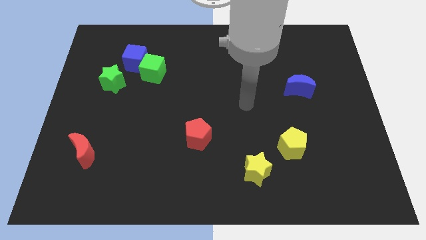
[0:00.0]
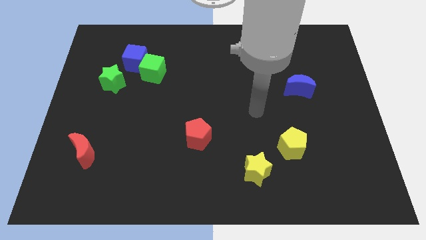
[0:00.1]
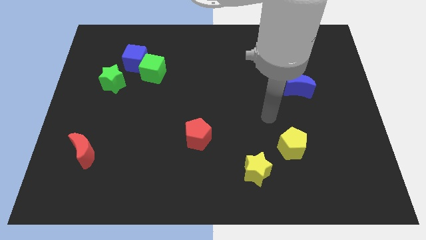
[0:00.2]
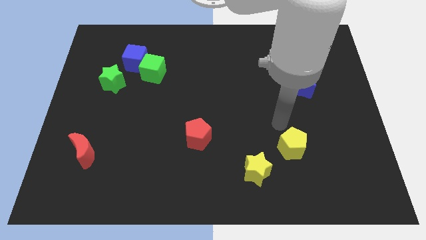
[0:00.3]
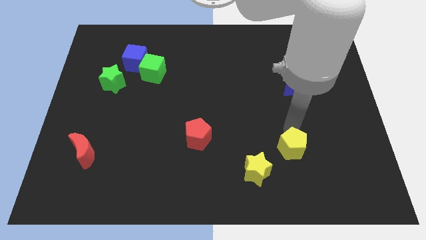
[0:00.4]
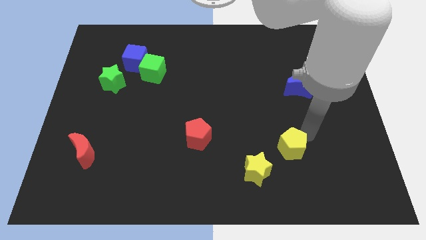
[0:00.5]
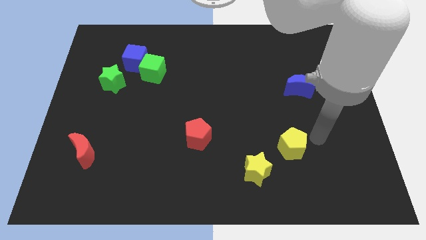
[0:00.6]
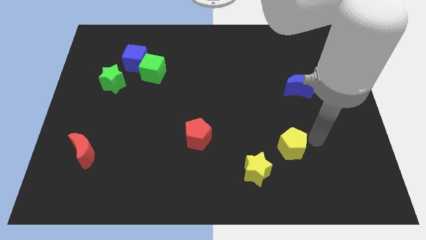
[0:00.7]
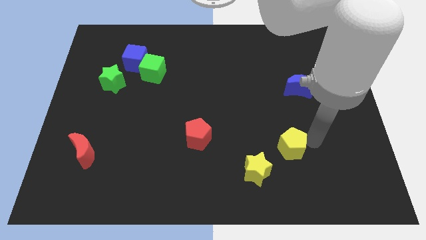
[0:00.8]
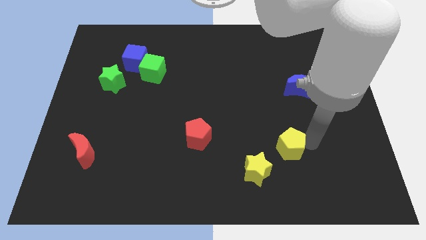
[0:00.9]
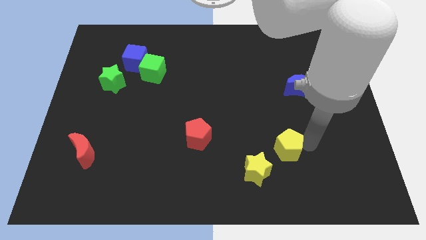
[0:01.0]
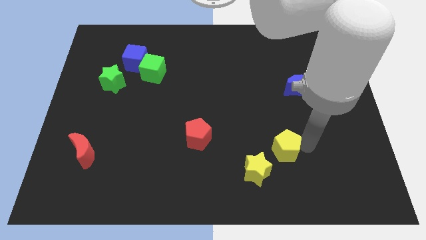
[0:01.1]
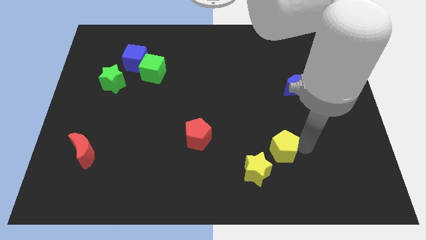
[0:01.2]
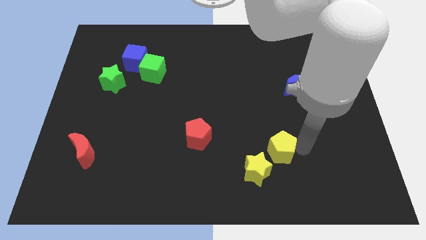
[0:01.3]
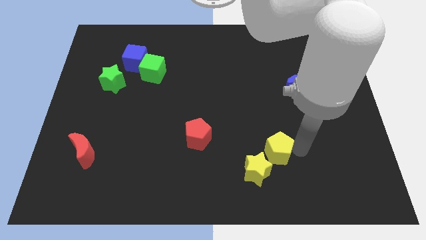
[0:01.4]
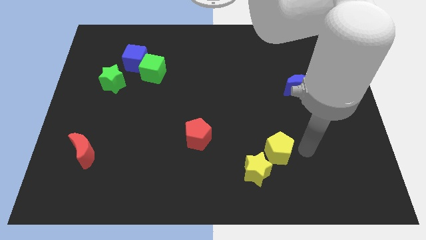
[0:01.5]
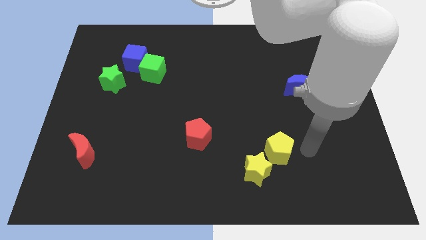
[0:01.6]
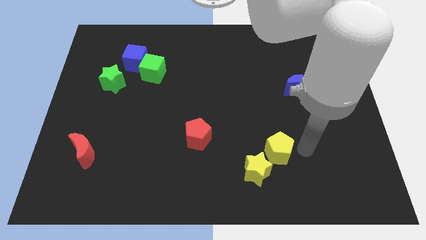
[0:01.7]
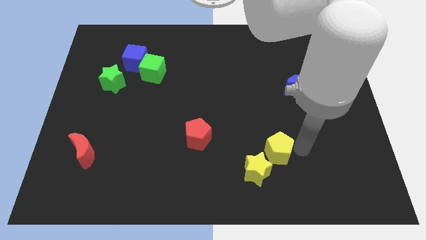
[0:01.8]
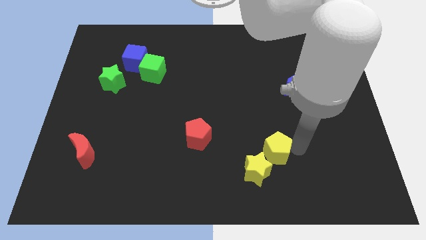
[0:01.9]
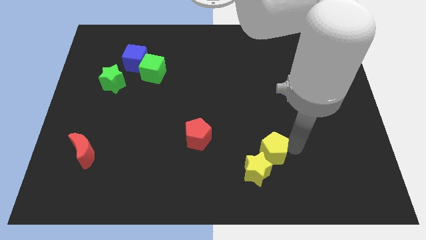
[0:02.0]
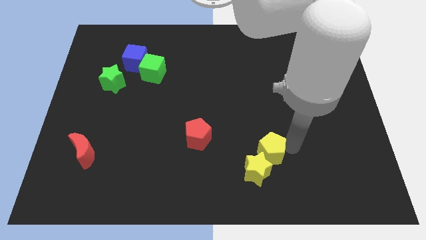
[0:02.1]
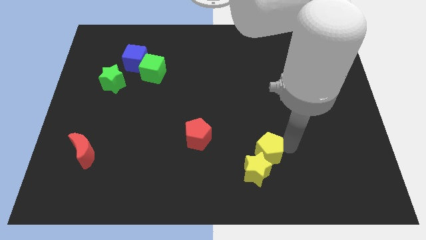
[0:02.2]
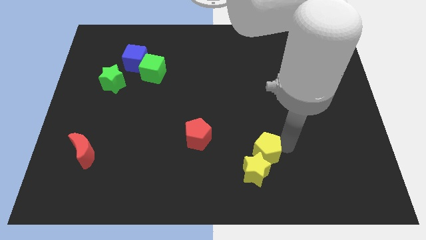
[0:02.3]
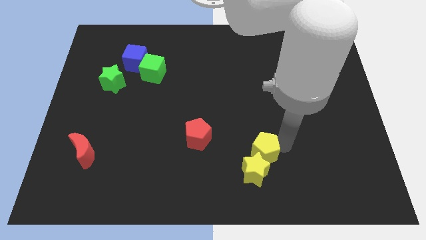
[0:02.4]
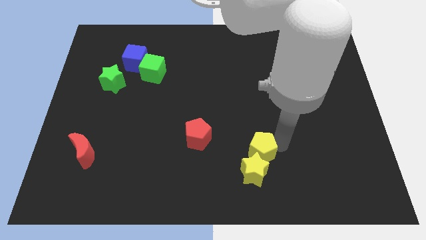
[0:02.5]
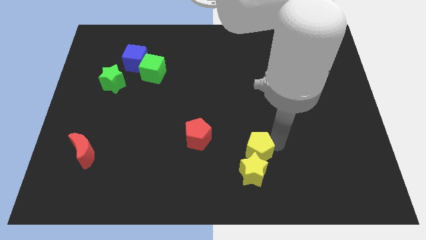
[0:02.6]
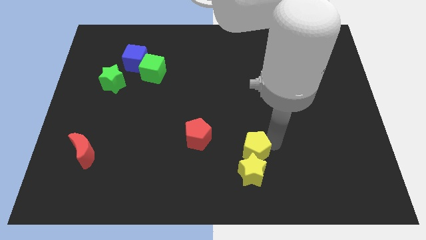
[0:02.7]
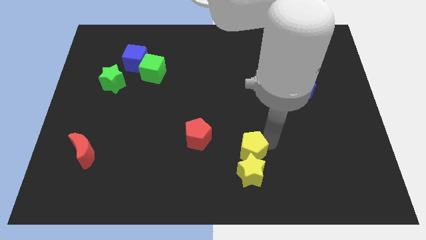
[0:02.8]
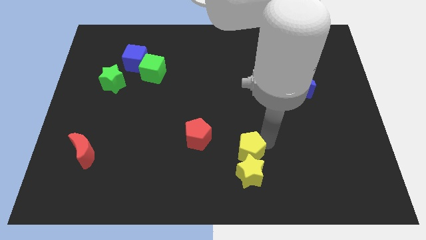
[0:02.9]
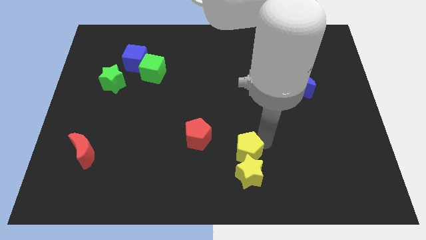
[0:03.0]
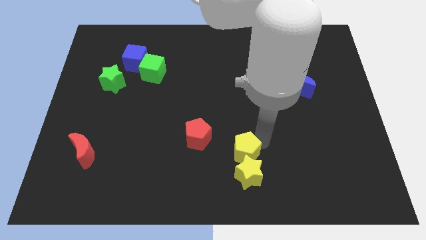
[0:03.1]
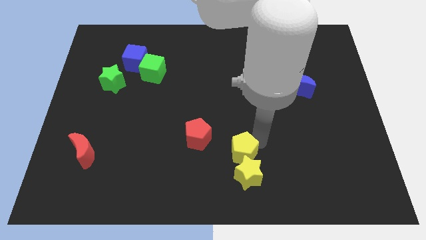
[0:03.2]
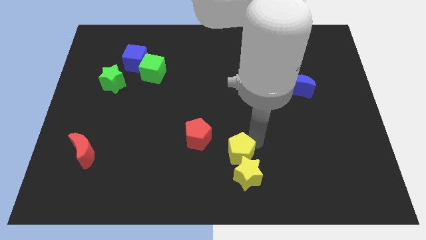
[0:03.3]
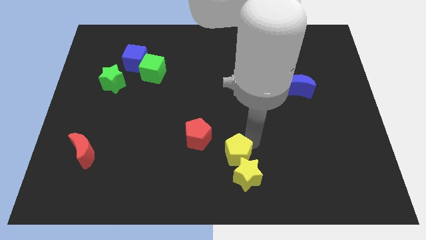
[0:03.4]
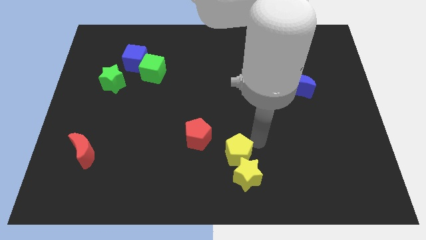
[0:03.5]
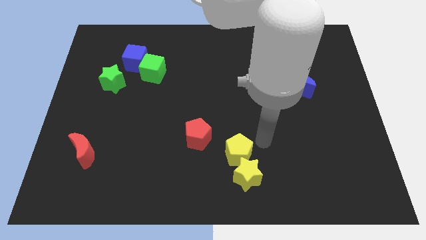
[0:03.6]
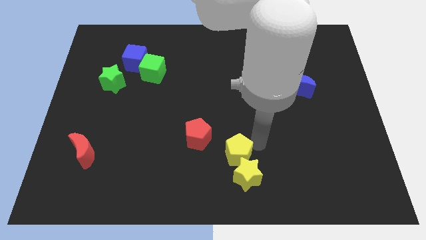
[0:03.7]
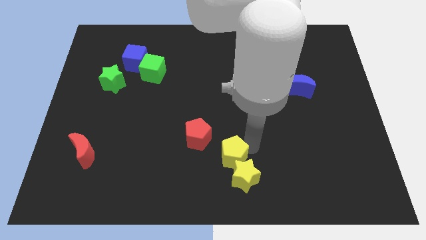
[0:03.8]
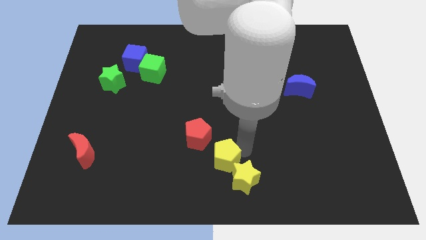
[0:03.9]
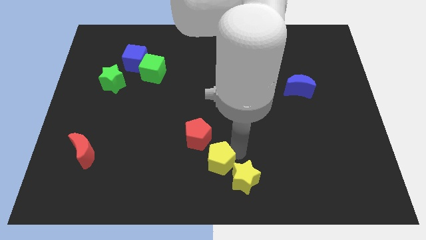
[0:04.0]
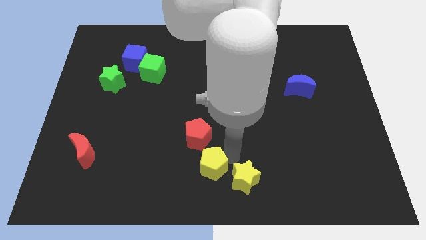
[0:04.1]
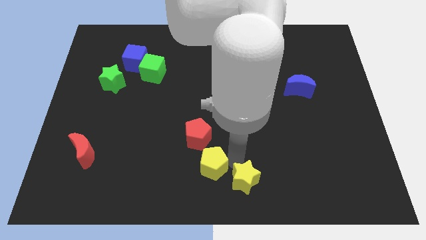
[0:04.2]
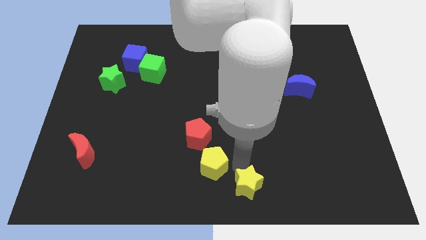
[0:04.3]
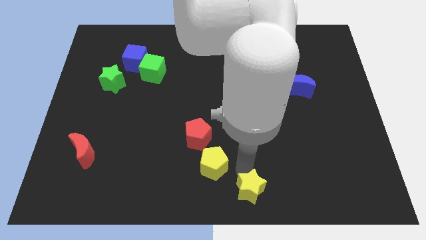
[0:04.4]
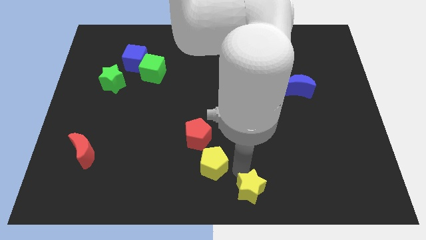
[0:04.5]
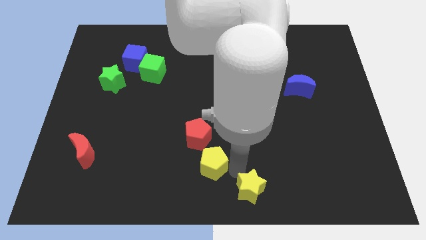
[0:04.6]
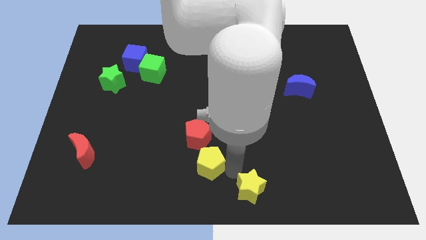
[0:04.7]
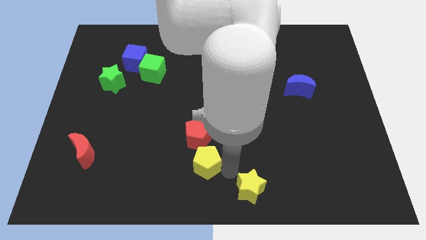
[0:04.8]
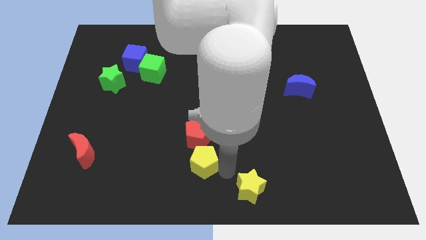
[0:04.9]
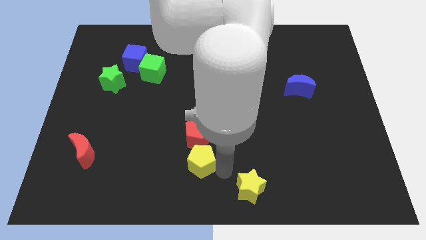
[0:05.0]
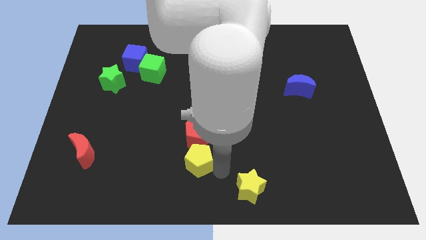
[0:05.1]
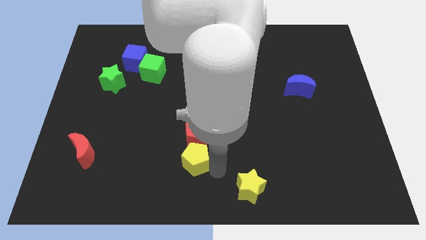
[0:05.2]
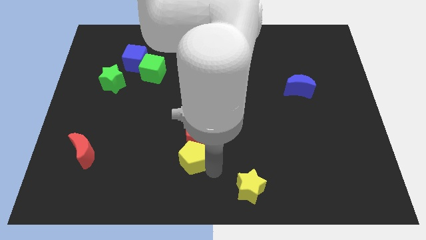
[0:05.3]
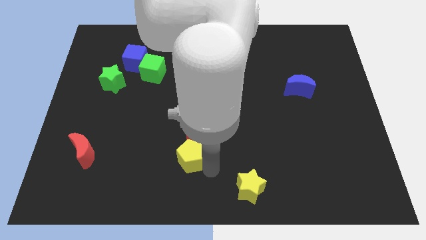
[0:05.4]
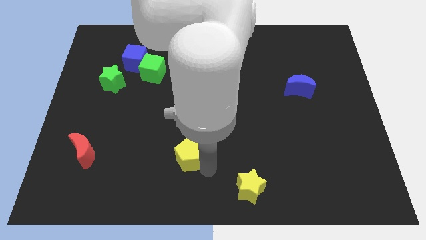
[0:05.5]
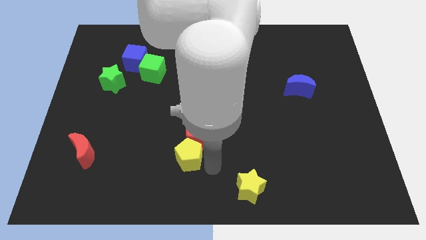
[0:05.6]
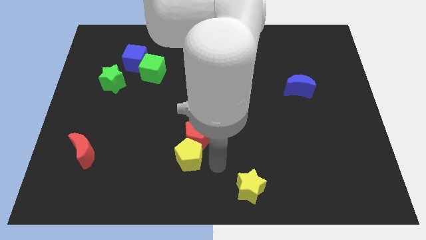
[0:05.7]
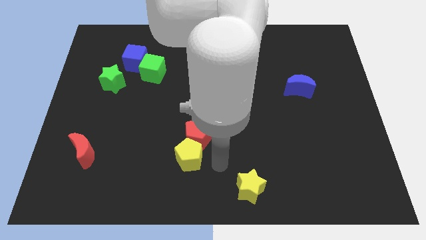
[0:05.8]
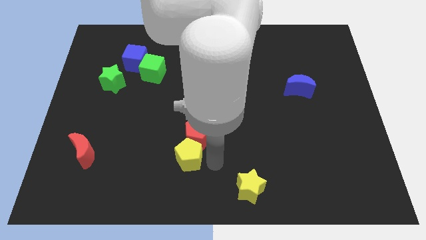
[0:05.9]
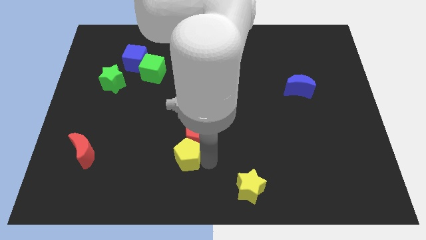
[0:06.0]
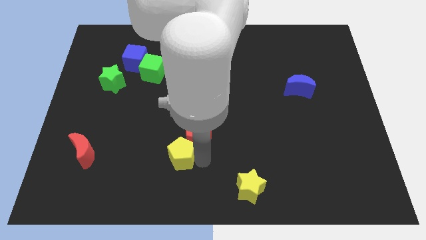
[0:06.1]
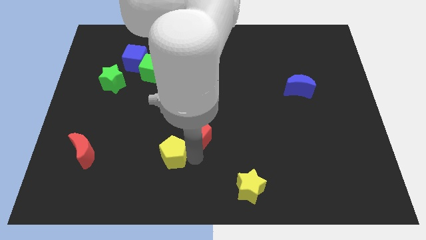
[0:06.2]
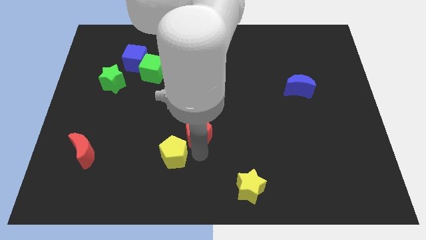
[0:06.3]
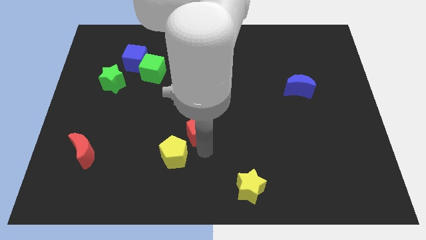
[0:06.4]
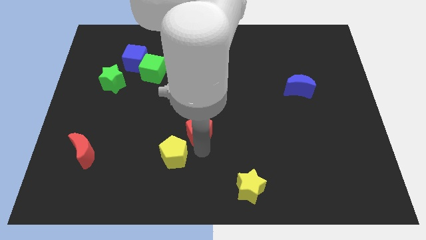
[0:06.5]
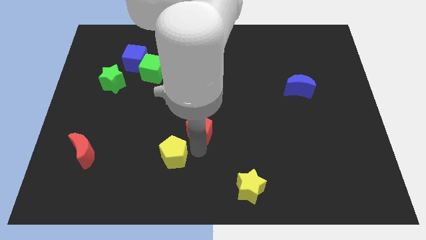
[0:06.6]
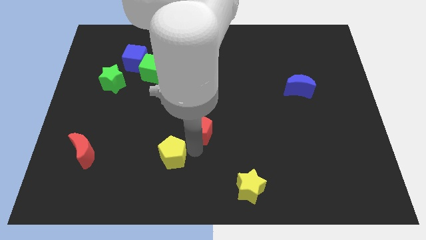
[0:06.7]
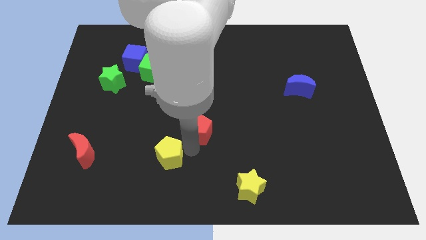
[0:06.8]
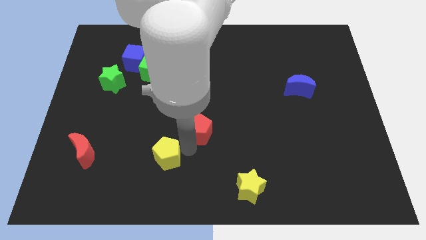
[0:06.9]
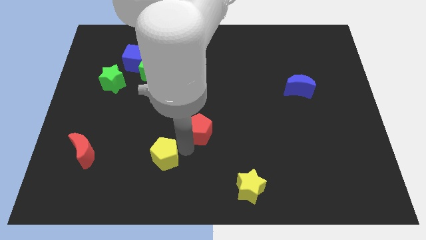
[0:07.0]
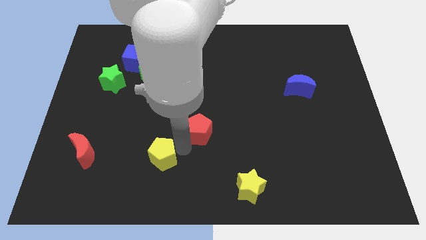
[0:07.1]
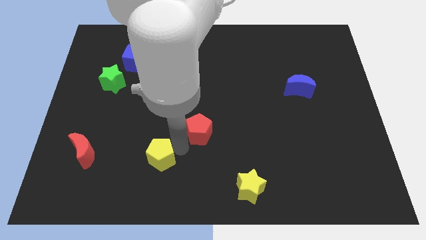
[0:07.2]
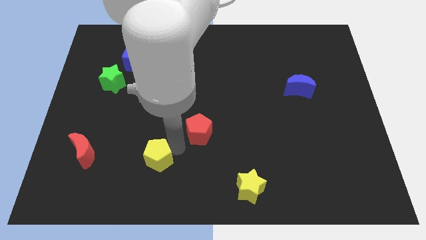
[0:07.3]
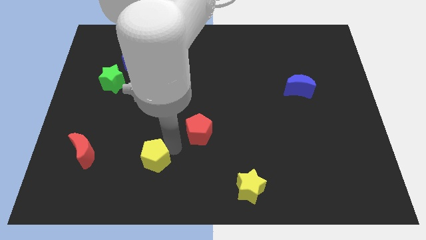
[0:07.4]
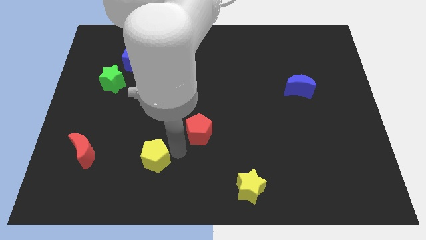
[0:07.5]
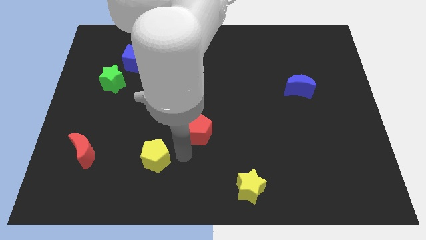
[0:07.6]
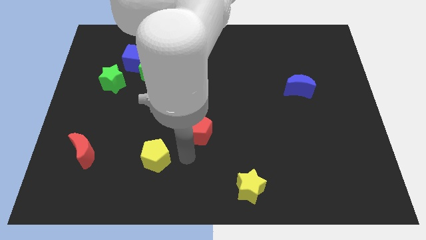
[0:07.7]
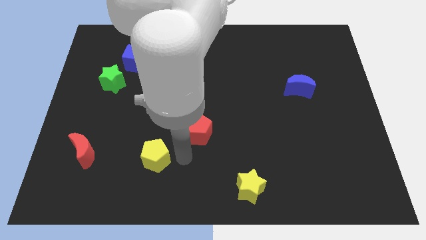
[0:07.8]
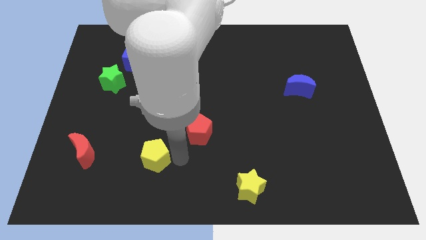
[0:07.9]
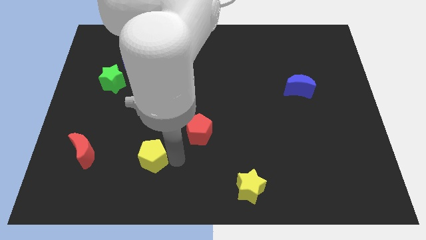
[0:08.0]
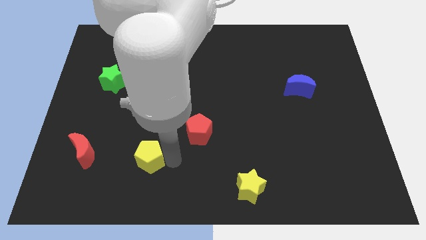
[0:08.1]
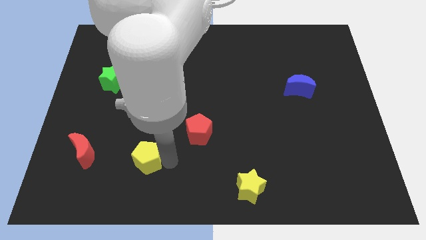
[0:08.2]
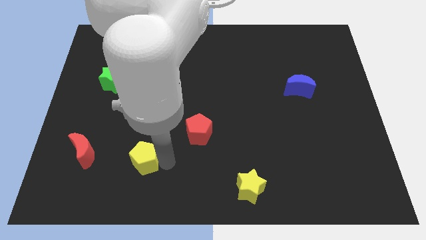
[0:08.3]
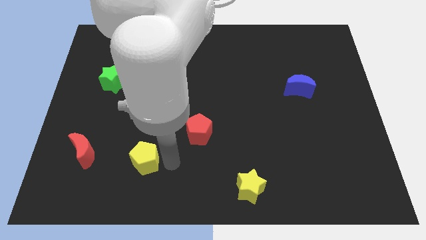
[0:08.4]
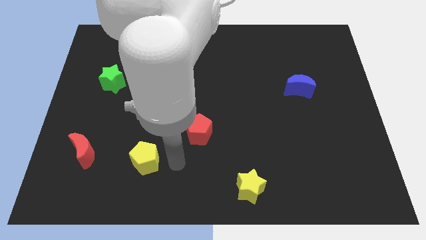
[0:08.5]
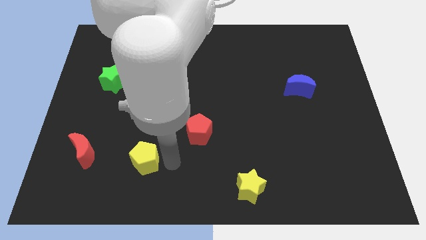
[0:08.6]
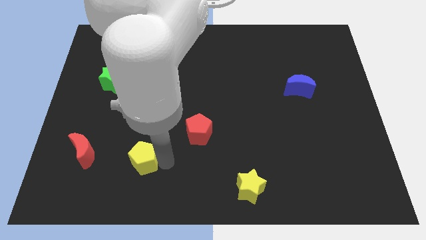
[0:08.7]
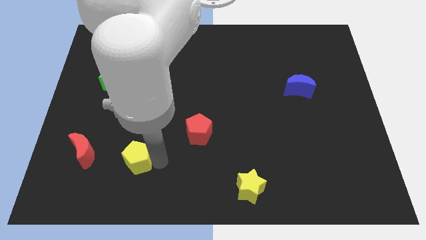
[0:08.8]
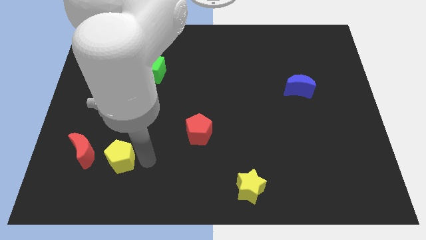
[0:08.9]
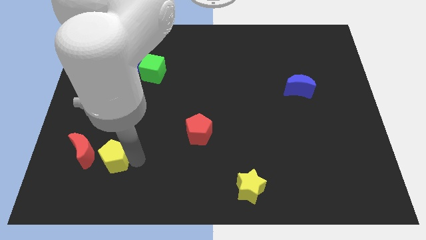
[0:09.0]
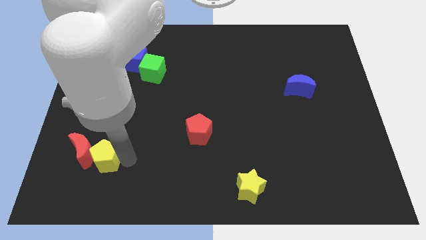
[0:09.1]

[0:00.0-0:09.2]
put the yellow pentagon next to the red moon
